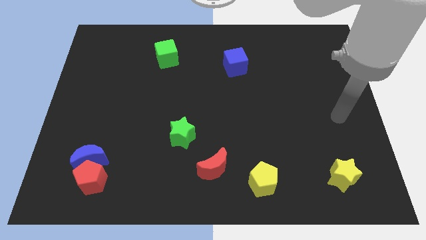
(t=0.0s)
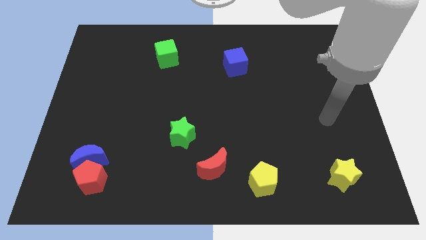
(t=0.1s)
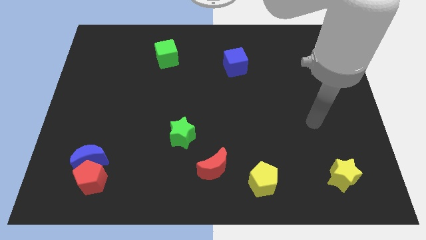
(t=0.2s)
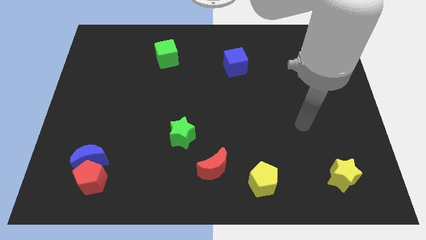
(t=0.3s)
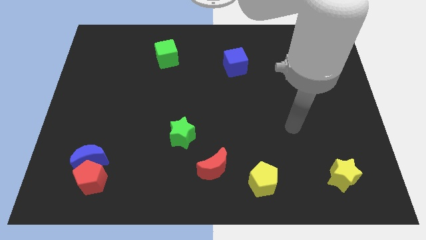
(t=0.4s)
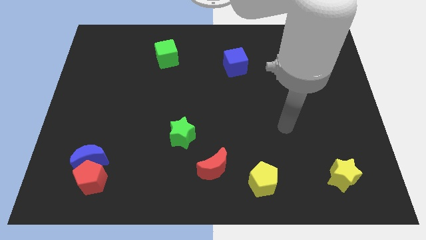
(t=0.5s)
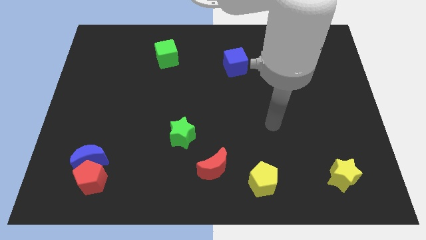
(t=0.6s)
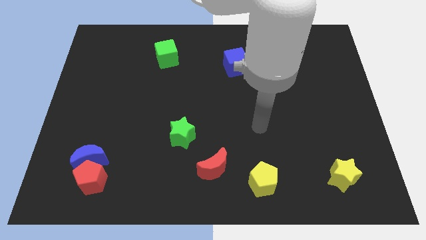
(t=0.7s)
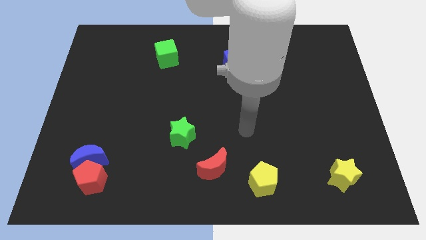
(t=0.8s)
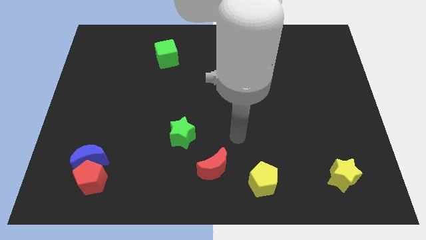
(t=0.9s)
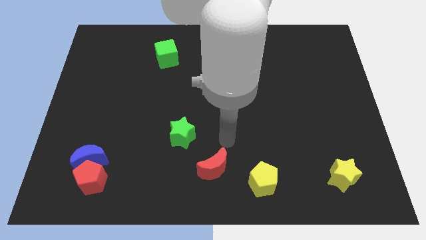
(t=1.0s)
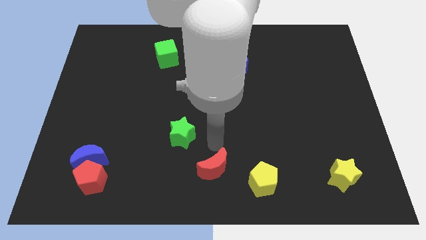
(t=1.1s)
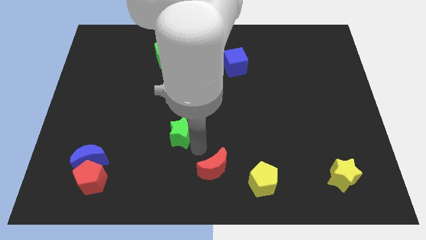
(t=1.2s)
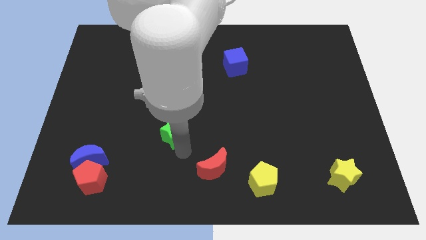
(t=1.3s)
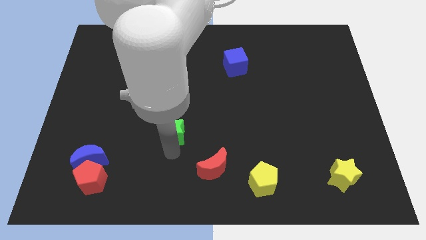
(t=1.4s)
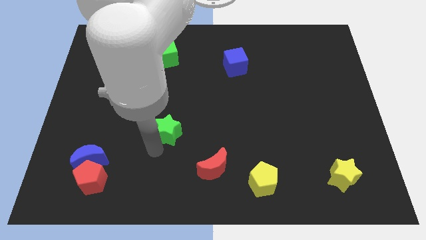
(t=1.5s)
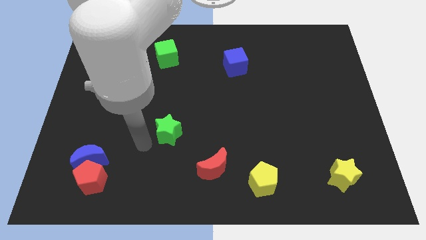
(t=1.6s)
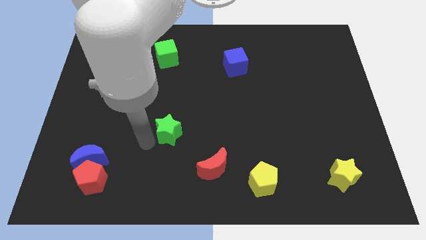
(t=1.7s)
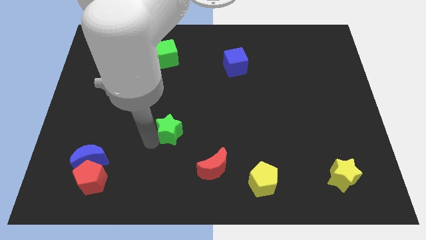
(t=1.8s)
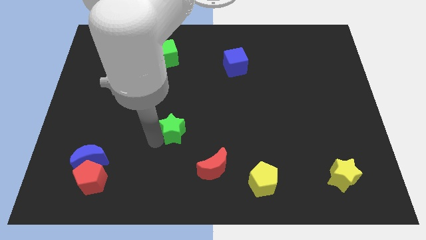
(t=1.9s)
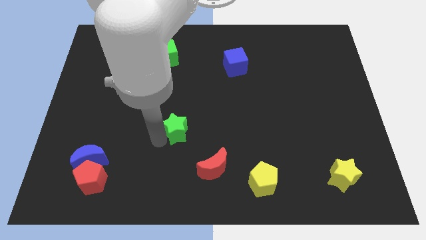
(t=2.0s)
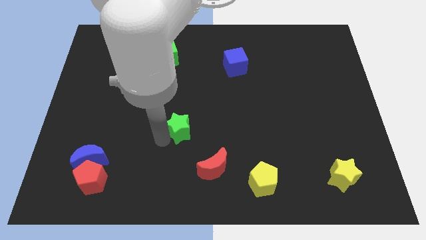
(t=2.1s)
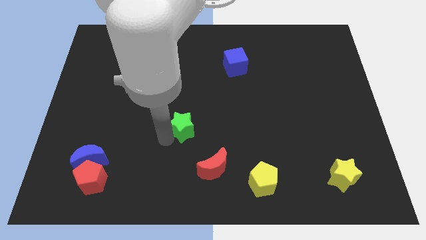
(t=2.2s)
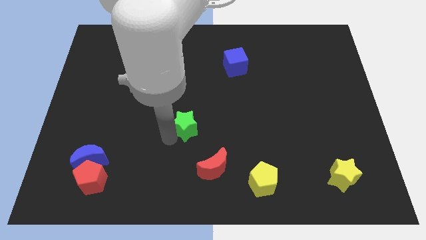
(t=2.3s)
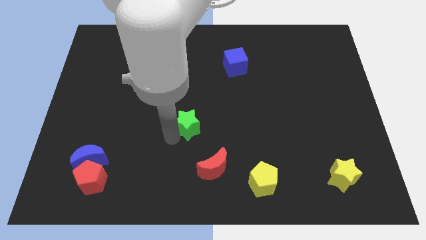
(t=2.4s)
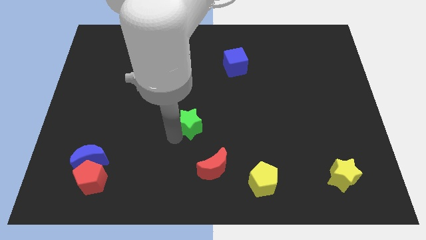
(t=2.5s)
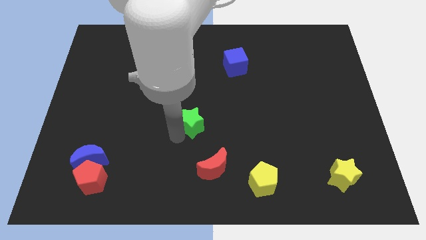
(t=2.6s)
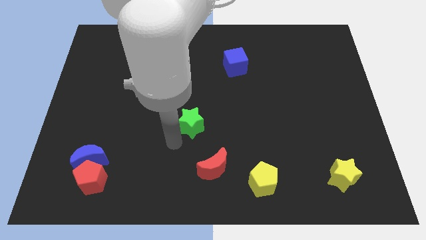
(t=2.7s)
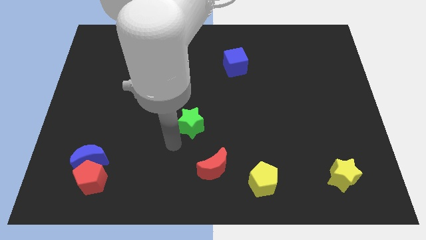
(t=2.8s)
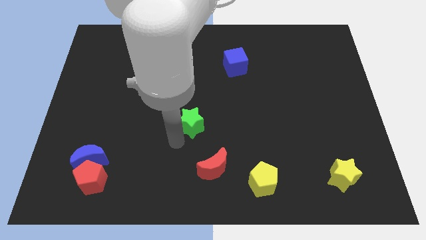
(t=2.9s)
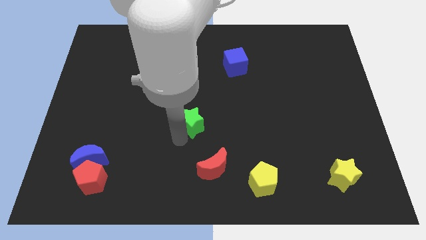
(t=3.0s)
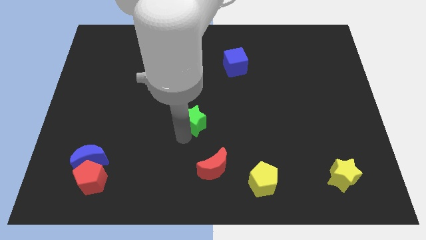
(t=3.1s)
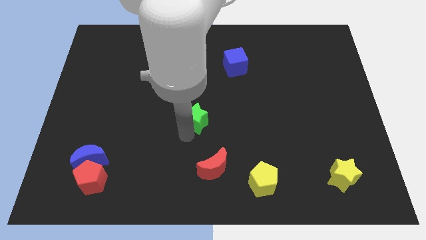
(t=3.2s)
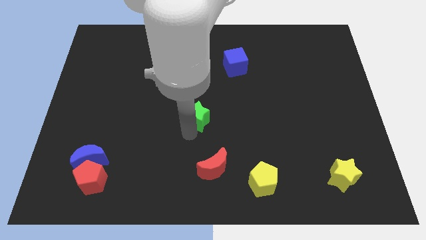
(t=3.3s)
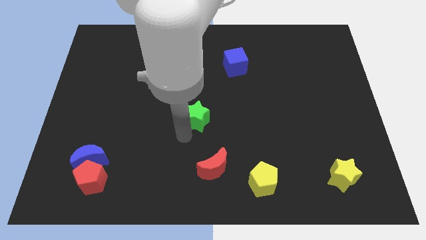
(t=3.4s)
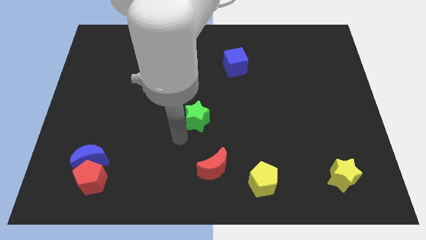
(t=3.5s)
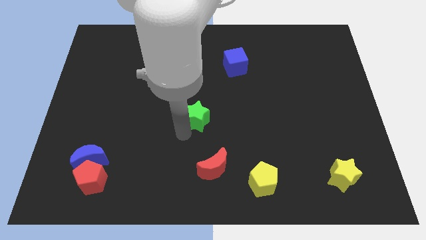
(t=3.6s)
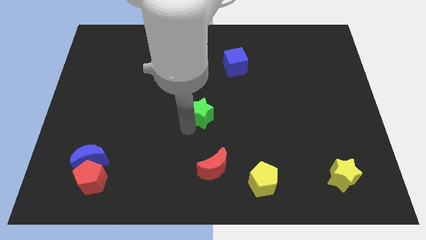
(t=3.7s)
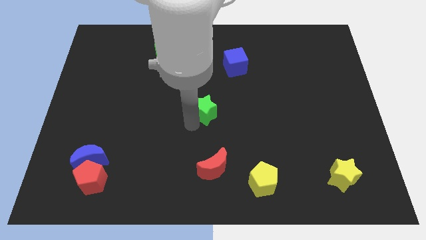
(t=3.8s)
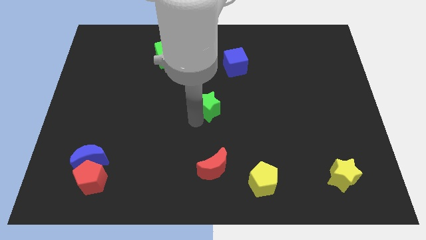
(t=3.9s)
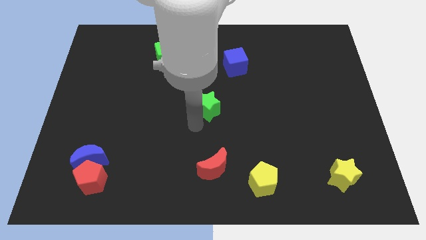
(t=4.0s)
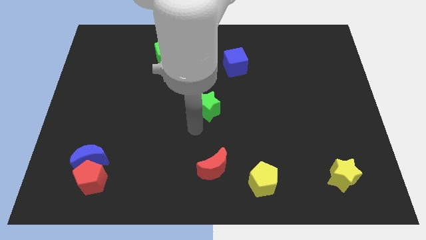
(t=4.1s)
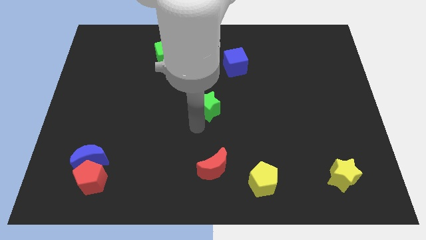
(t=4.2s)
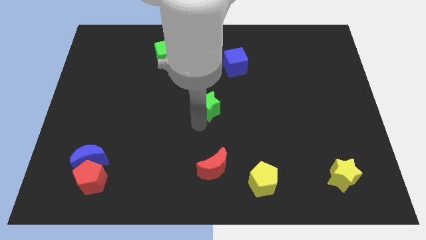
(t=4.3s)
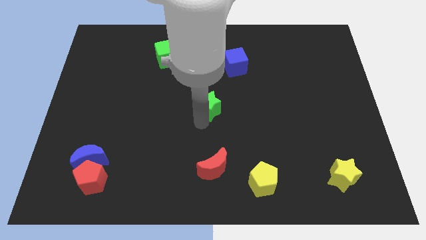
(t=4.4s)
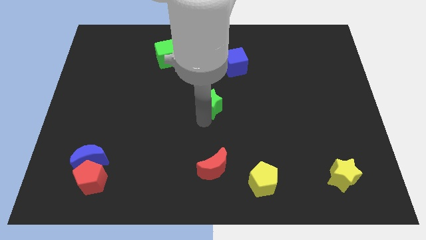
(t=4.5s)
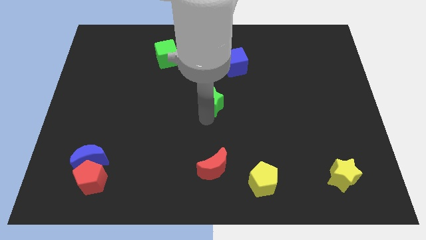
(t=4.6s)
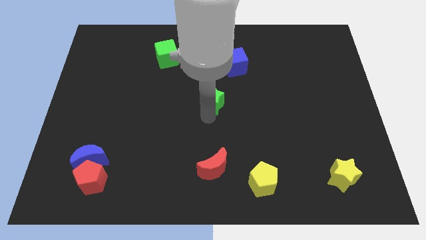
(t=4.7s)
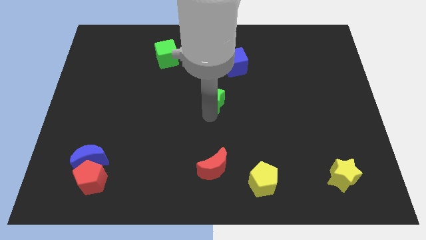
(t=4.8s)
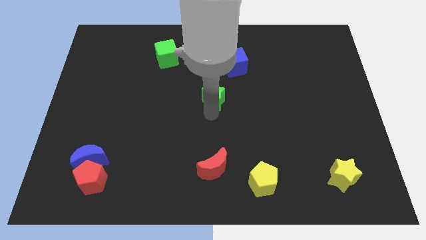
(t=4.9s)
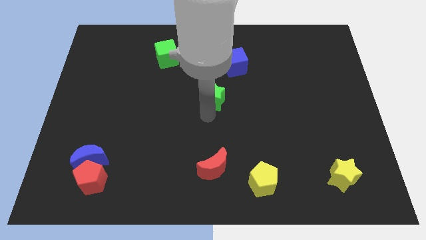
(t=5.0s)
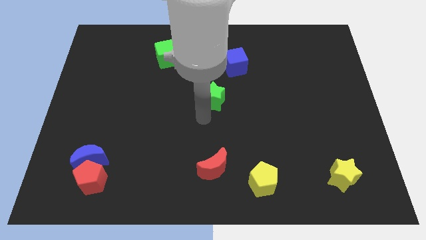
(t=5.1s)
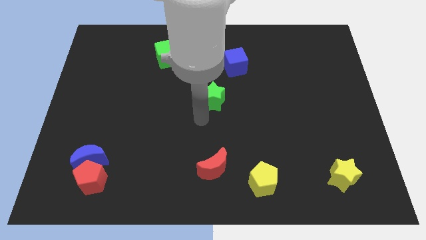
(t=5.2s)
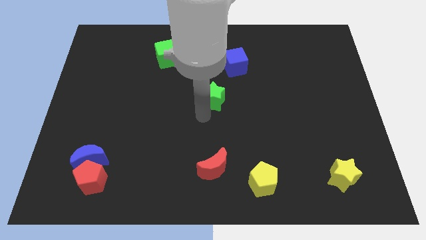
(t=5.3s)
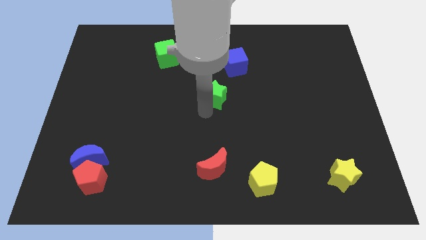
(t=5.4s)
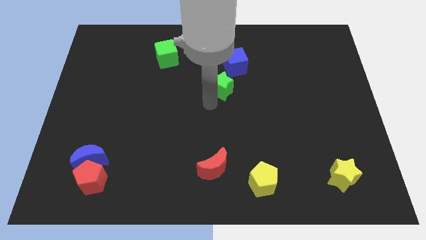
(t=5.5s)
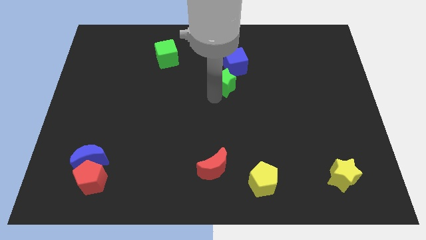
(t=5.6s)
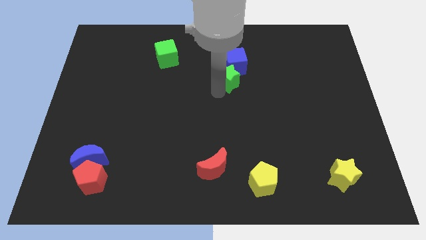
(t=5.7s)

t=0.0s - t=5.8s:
move the green star to the blue cube

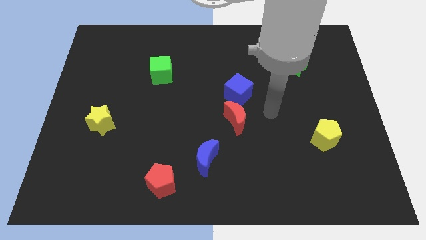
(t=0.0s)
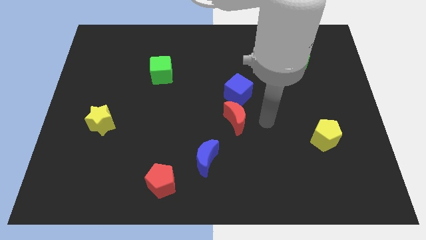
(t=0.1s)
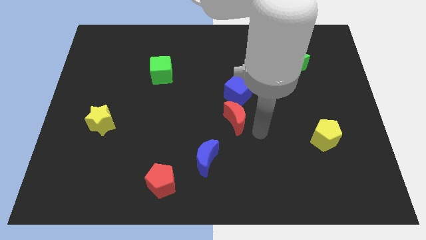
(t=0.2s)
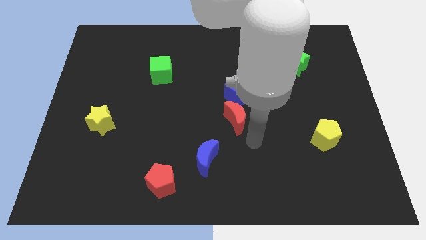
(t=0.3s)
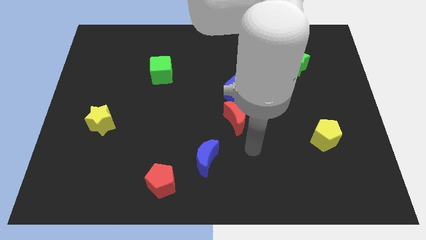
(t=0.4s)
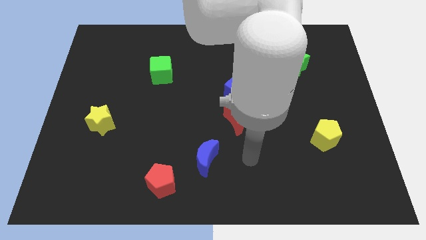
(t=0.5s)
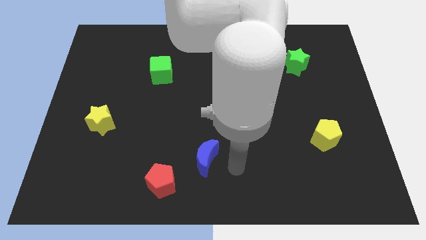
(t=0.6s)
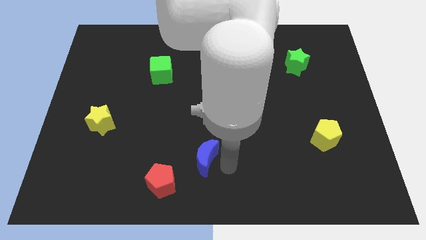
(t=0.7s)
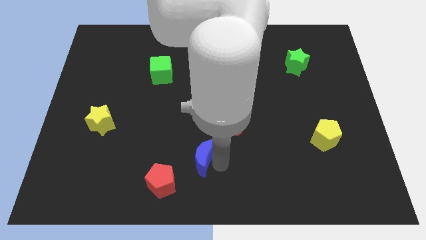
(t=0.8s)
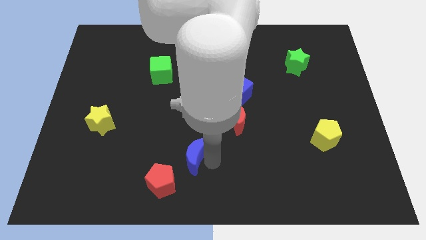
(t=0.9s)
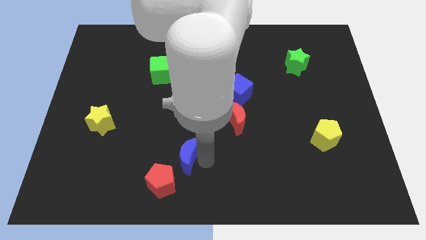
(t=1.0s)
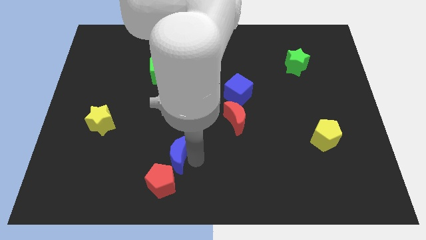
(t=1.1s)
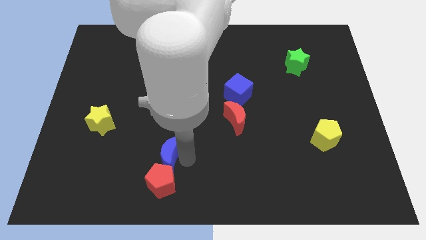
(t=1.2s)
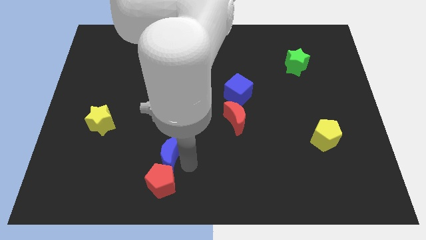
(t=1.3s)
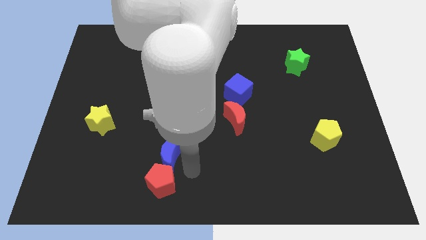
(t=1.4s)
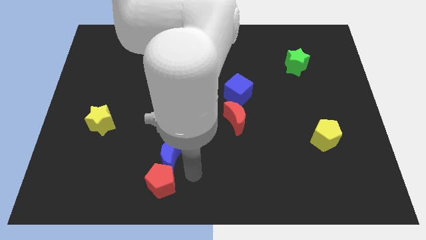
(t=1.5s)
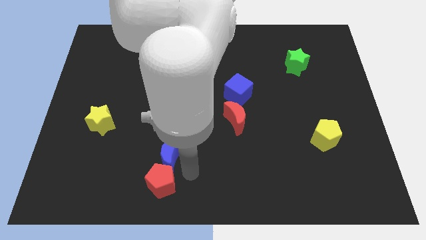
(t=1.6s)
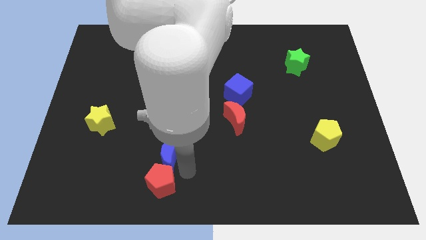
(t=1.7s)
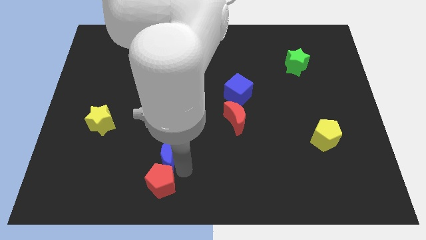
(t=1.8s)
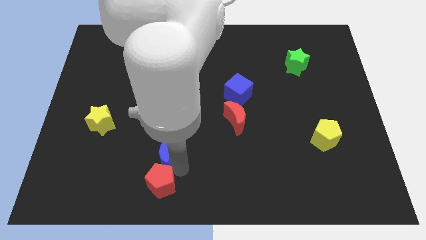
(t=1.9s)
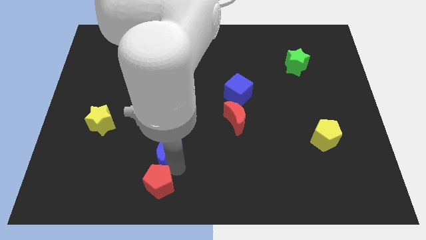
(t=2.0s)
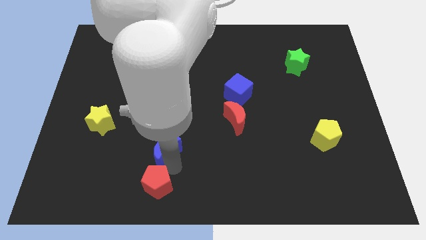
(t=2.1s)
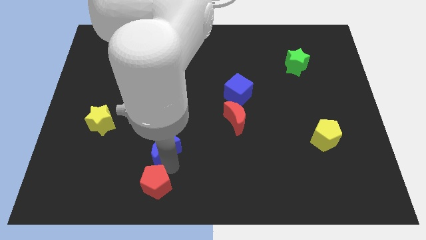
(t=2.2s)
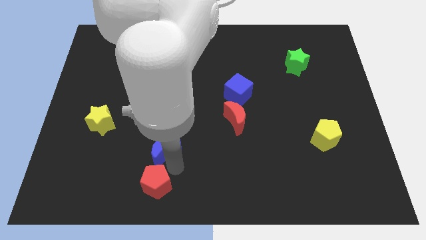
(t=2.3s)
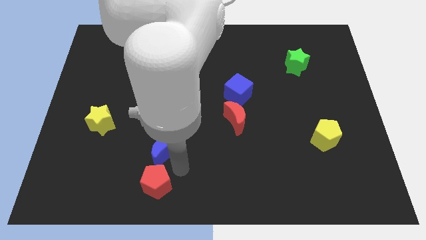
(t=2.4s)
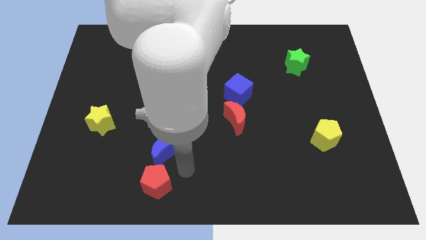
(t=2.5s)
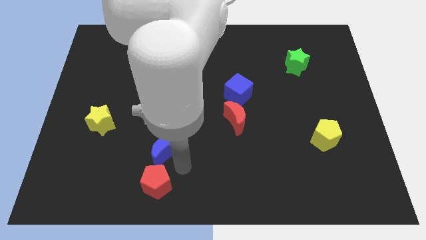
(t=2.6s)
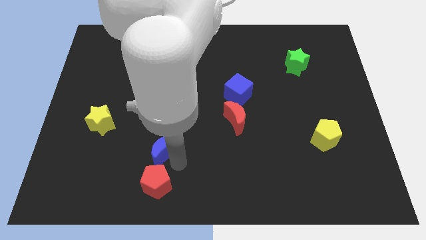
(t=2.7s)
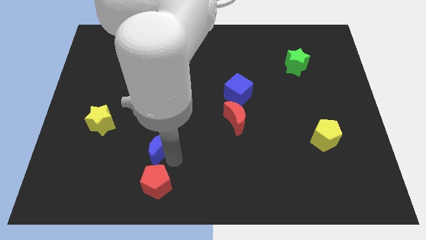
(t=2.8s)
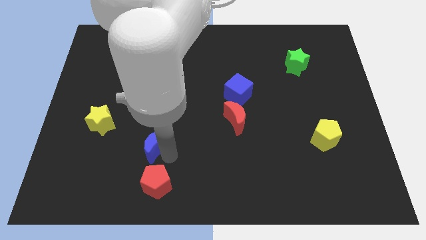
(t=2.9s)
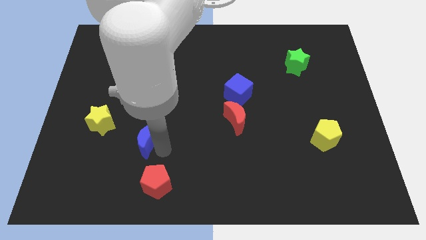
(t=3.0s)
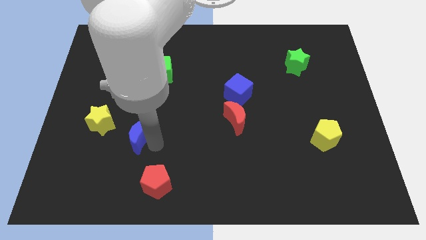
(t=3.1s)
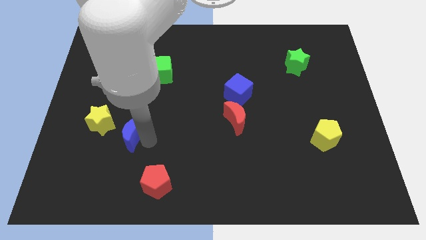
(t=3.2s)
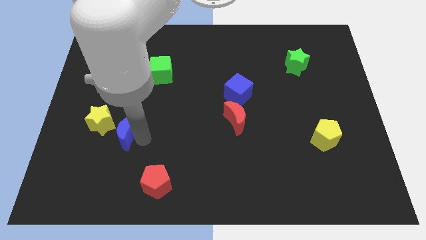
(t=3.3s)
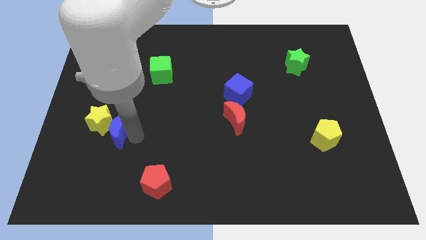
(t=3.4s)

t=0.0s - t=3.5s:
put the blue moon to the yellow star
